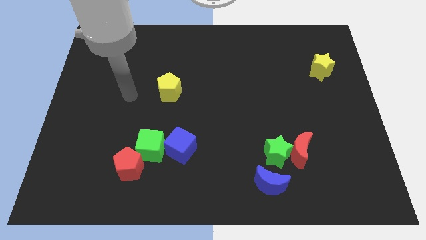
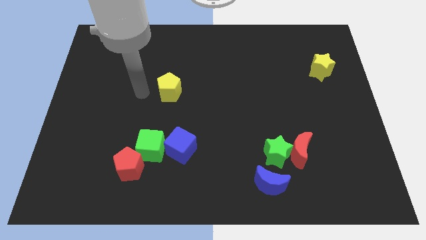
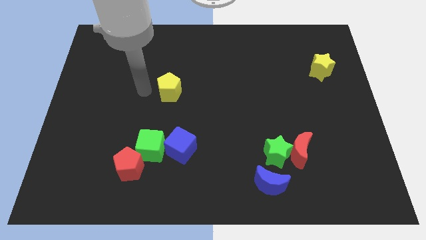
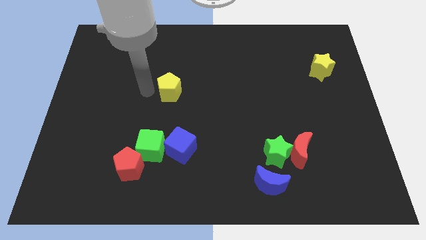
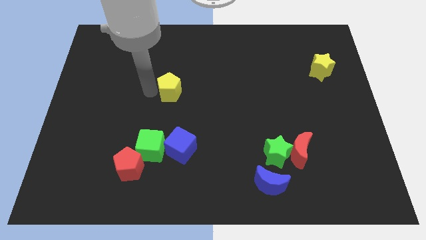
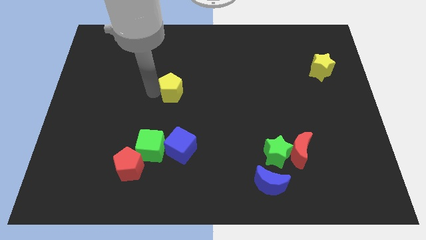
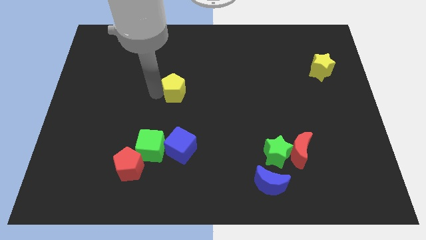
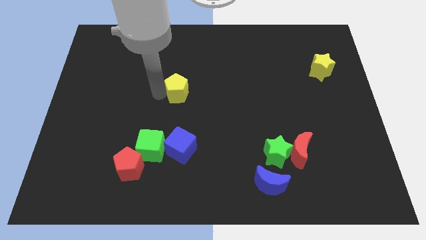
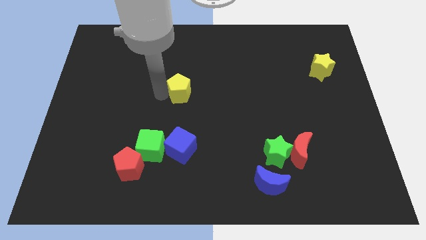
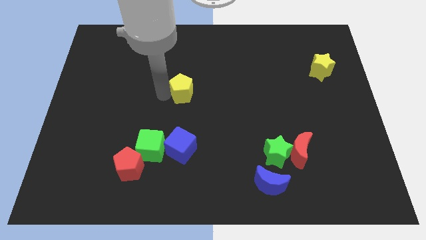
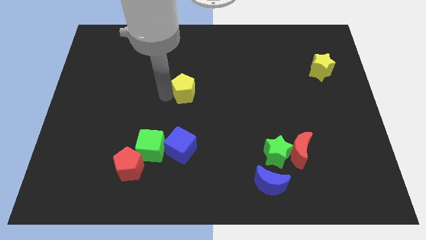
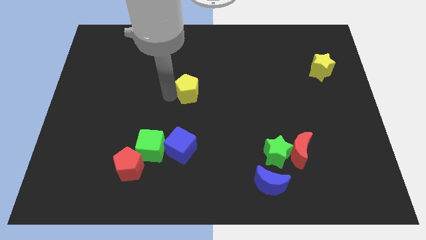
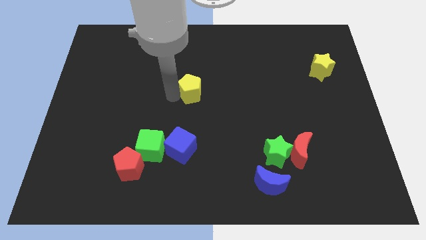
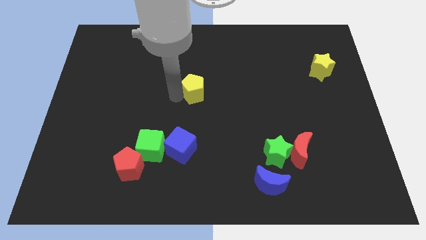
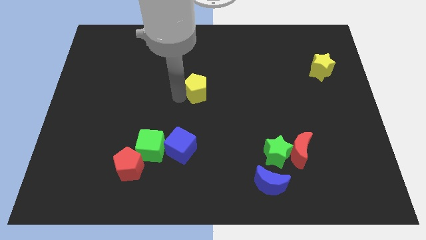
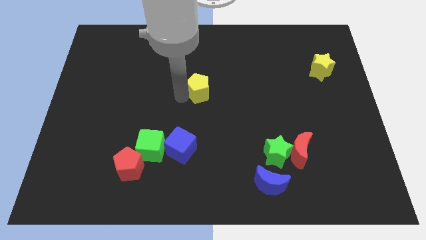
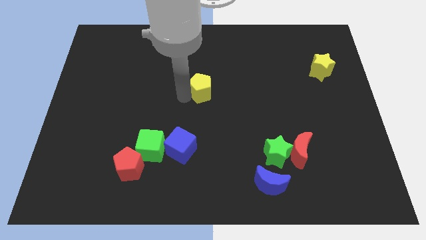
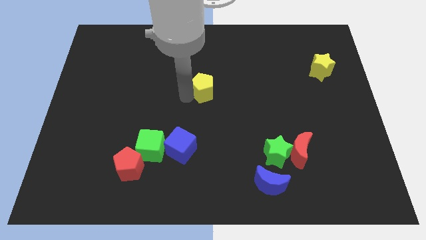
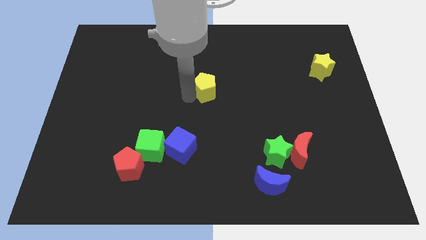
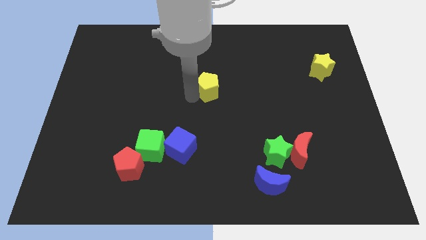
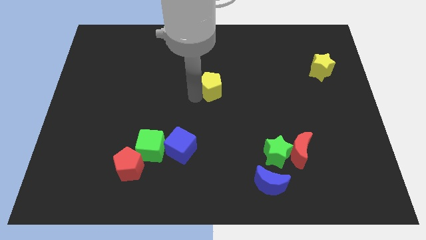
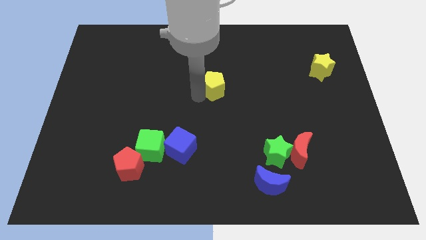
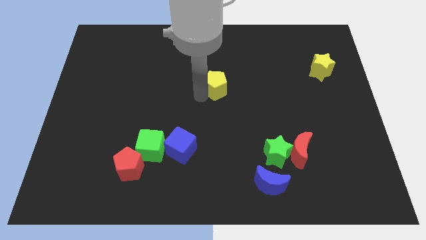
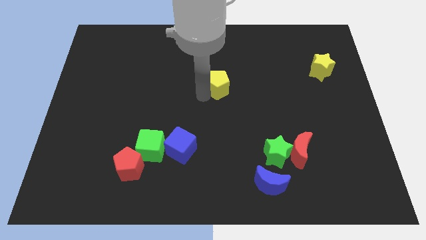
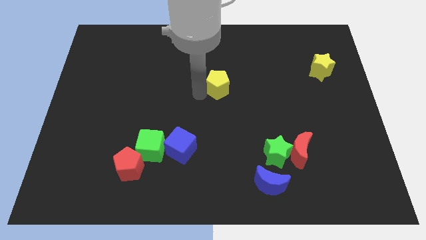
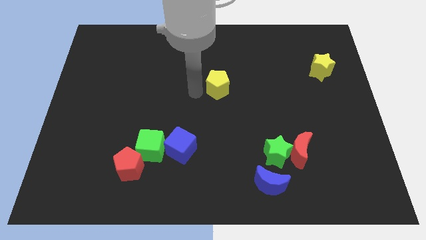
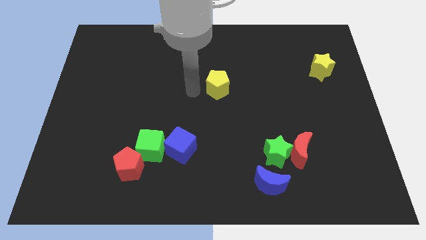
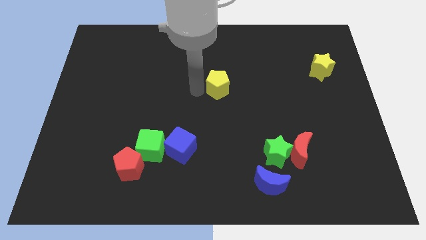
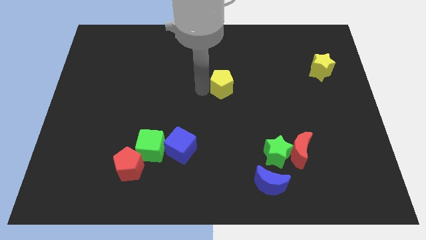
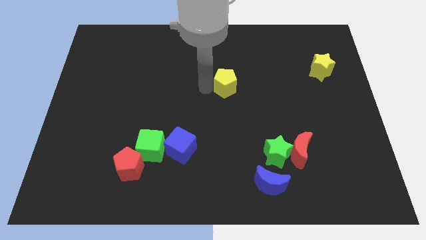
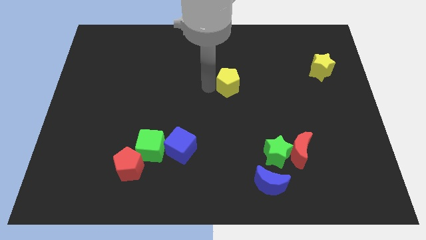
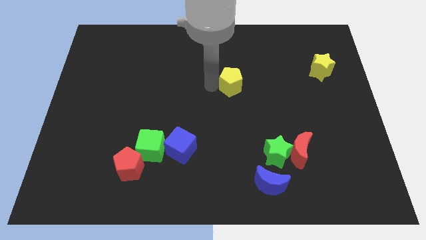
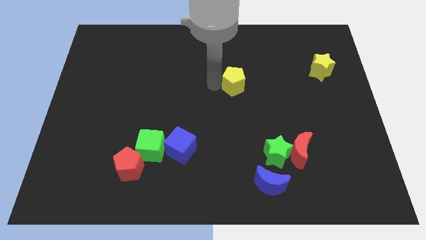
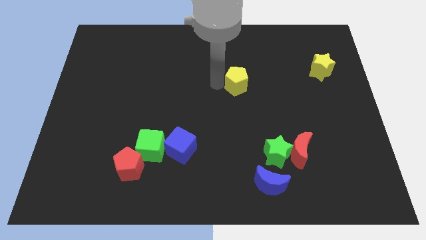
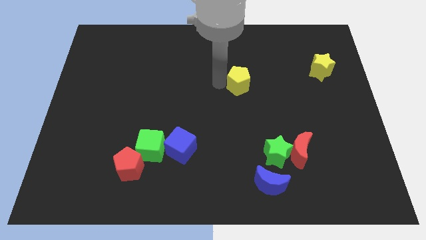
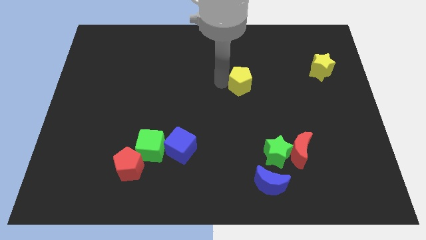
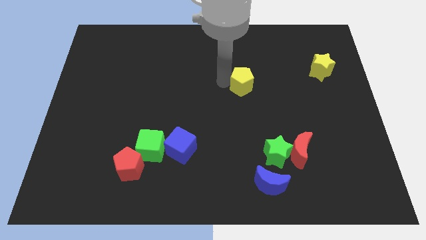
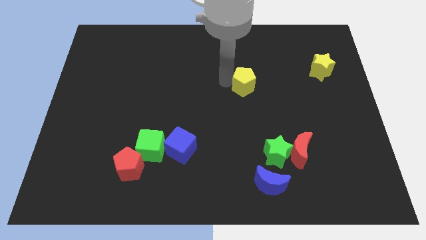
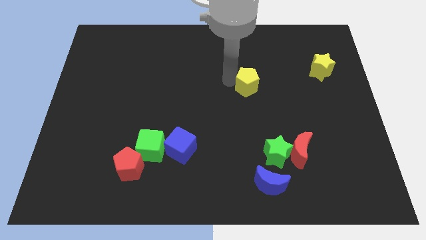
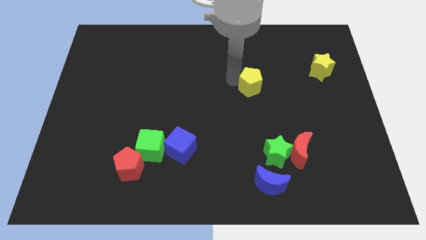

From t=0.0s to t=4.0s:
slide the yellow pentagon right

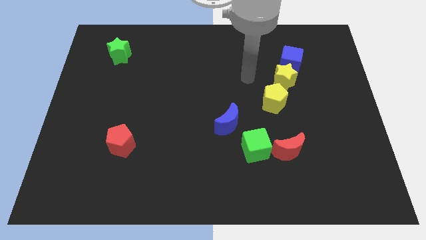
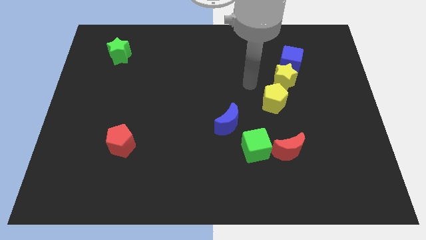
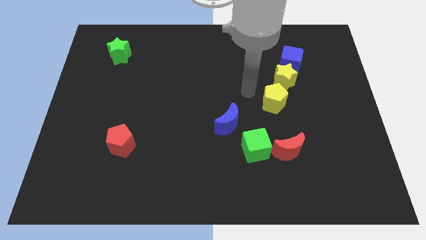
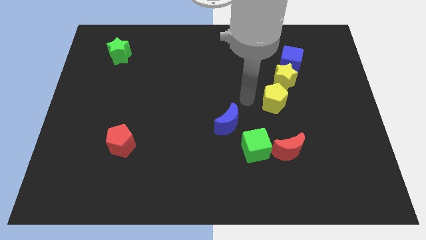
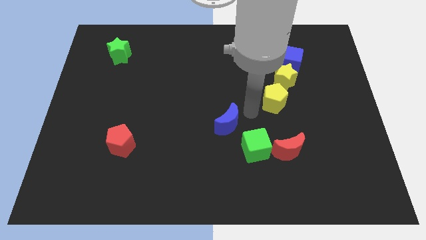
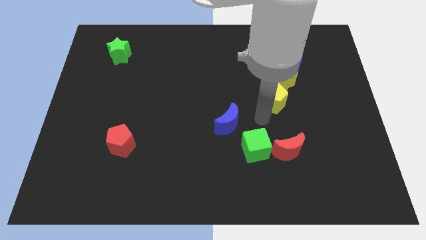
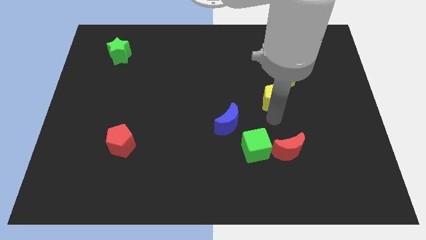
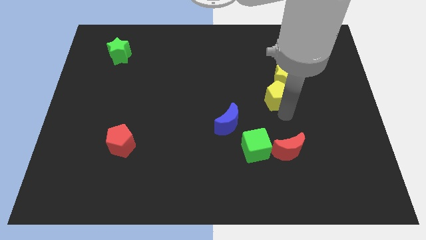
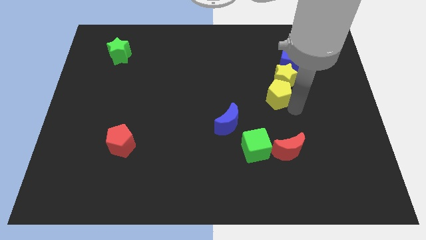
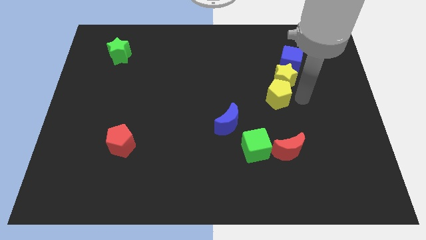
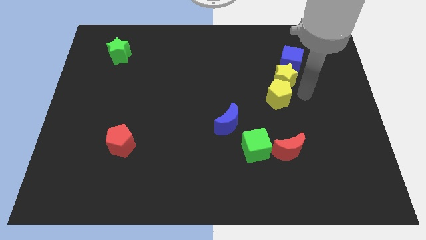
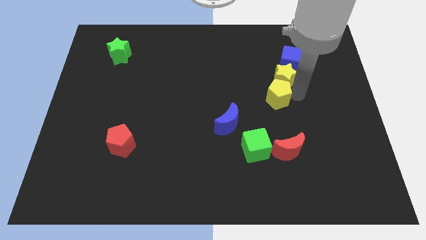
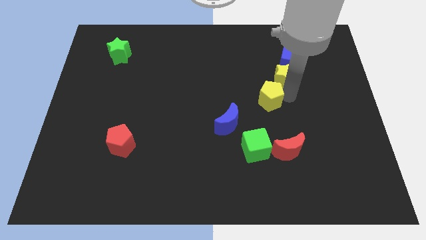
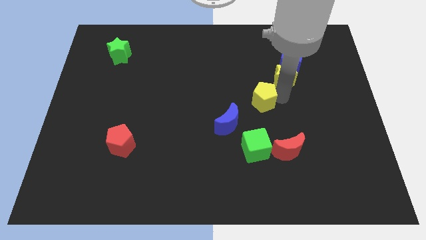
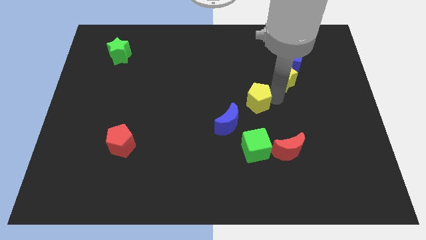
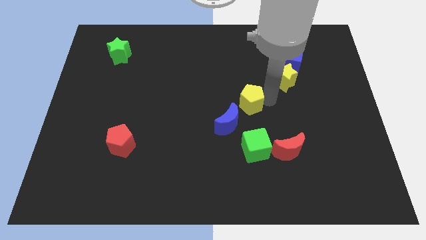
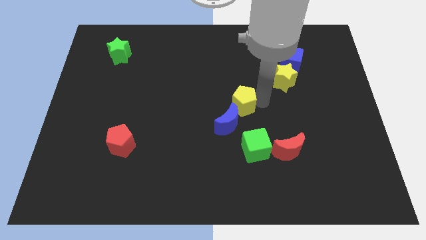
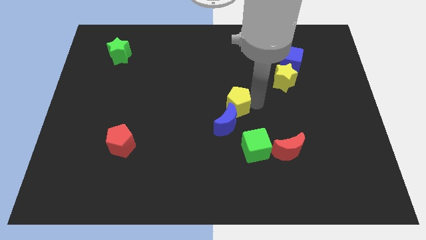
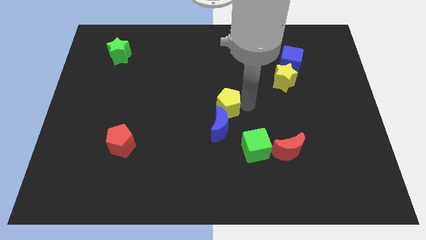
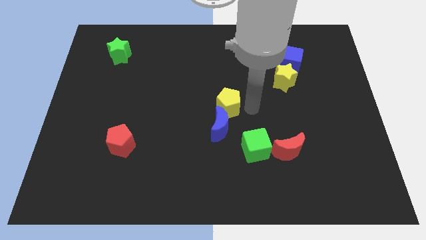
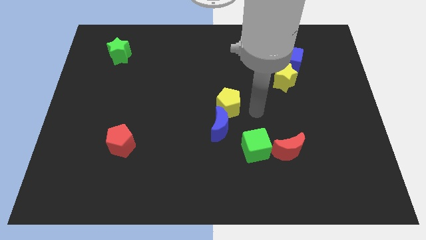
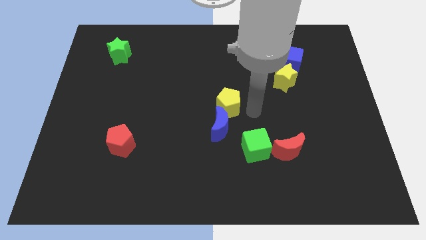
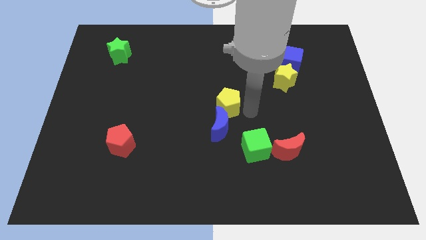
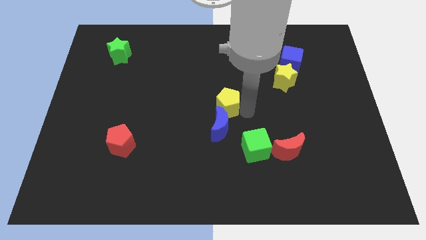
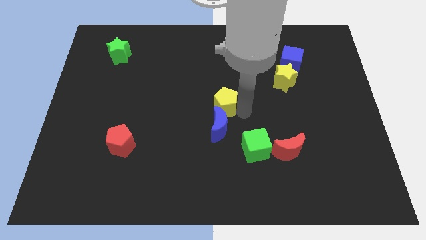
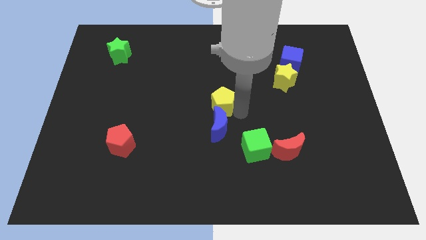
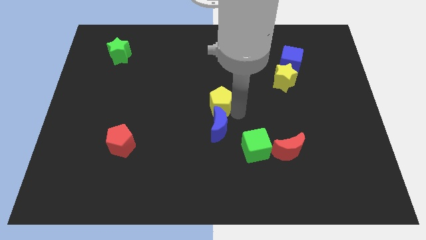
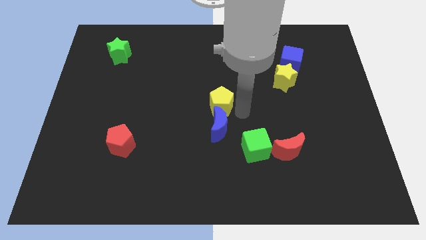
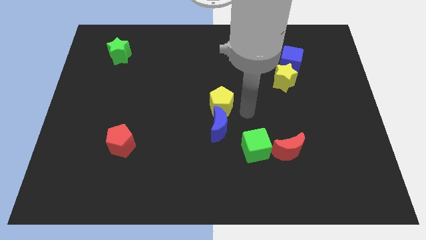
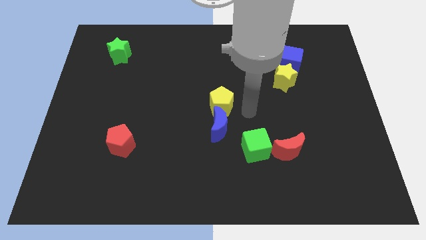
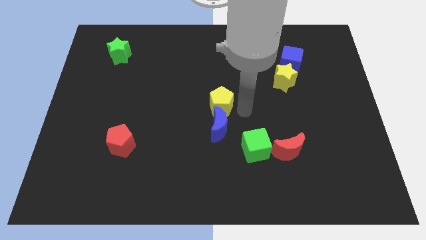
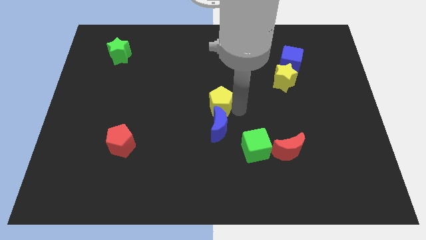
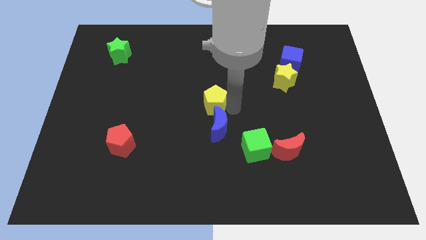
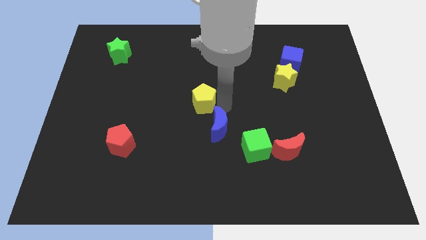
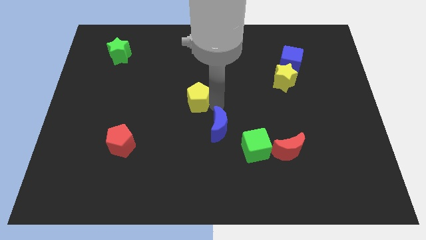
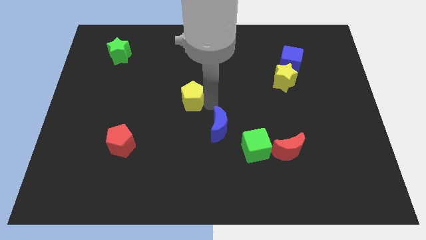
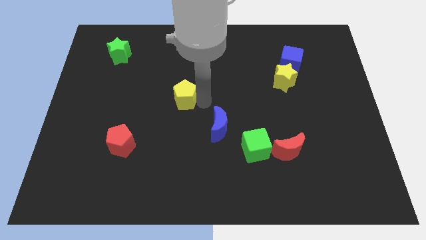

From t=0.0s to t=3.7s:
move the yellow pentagon left
